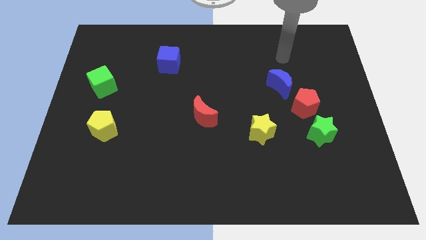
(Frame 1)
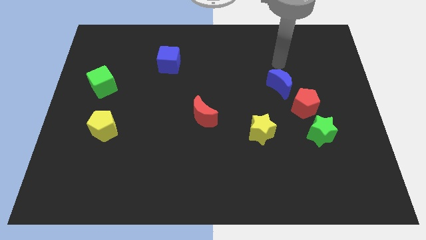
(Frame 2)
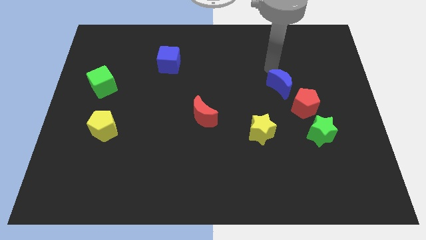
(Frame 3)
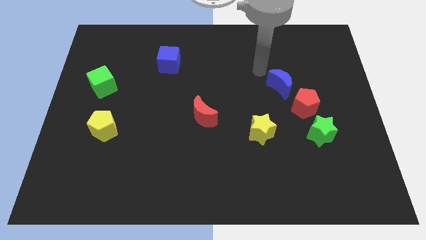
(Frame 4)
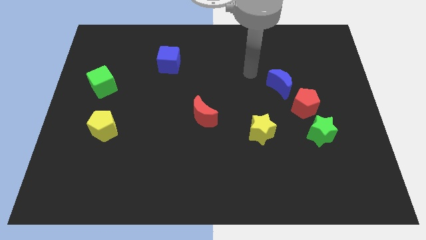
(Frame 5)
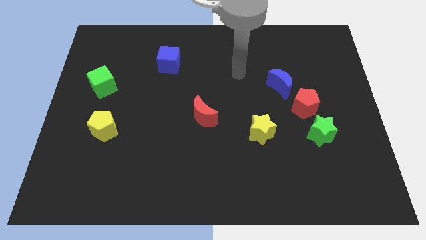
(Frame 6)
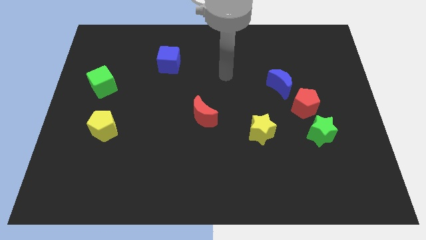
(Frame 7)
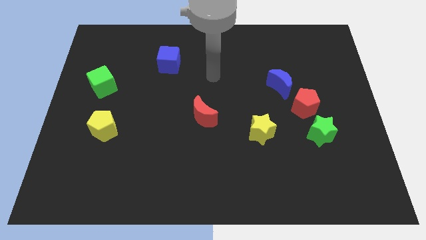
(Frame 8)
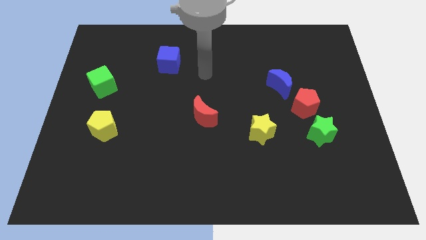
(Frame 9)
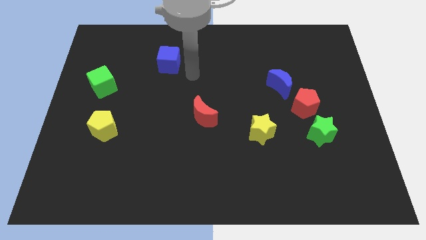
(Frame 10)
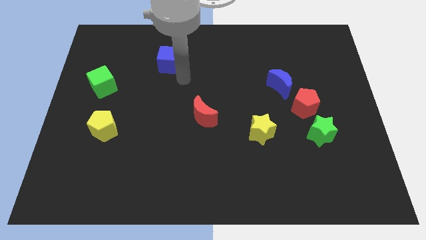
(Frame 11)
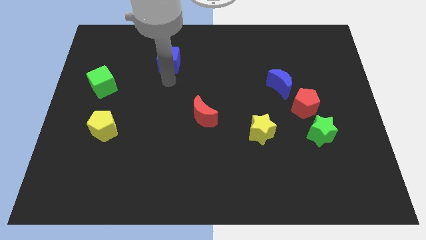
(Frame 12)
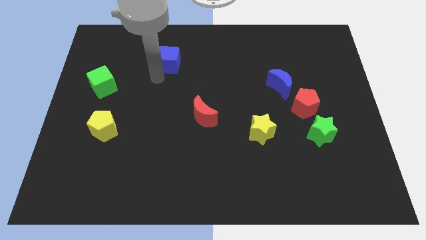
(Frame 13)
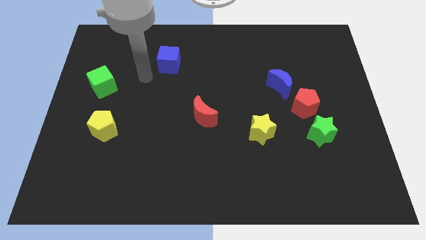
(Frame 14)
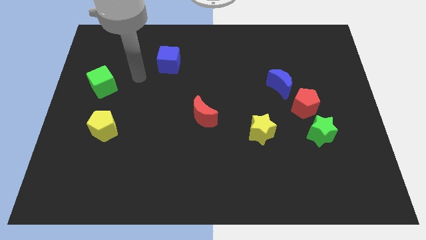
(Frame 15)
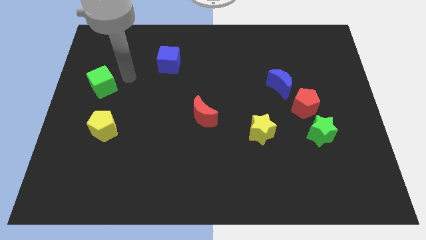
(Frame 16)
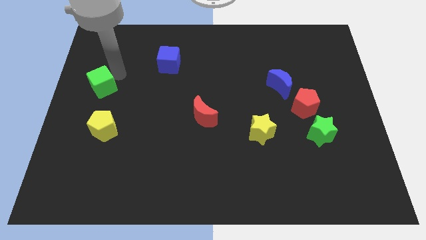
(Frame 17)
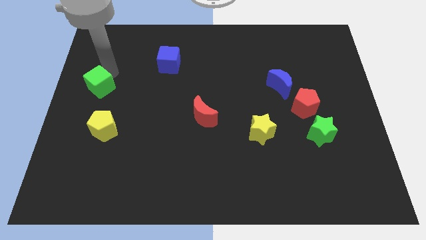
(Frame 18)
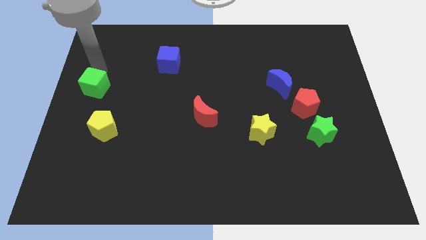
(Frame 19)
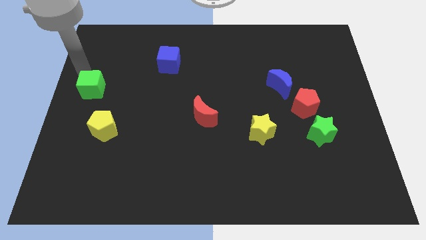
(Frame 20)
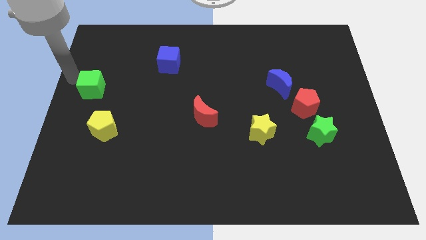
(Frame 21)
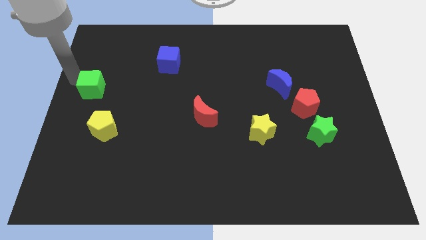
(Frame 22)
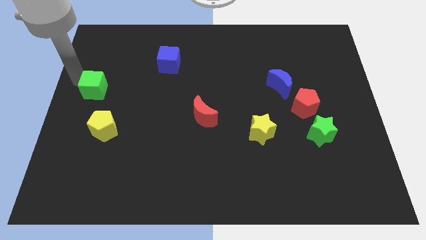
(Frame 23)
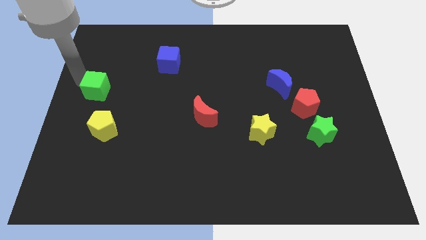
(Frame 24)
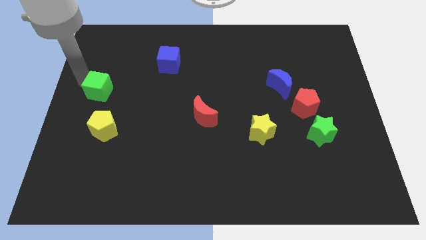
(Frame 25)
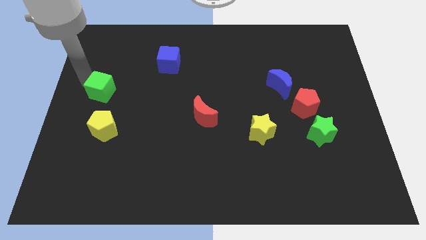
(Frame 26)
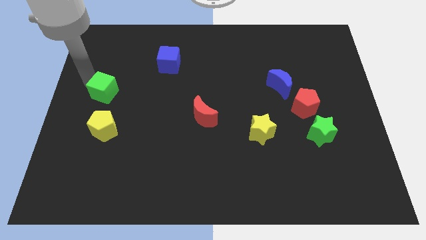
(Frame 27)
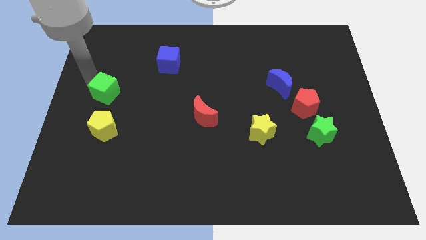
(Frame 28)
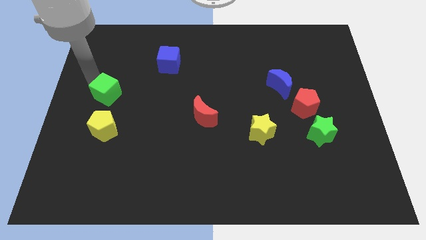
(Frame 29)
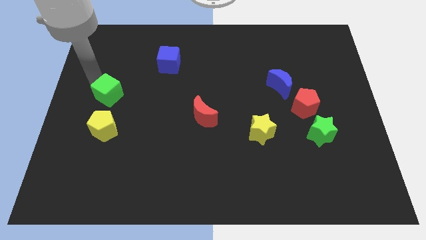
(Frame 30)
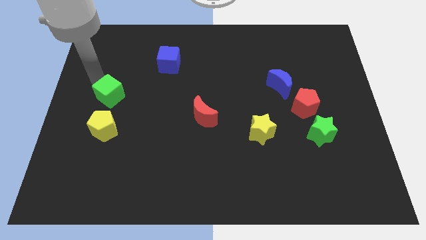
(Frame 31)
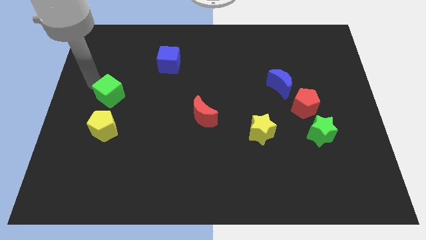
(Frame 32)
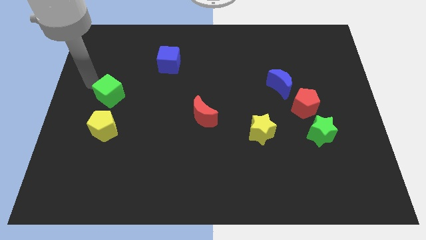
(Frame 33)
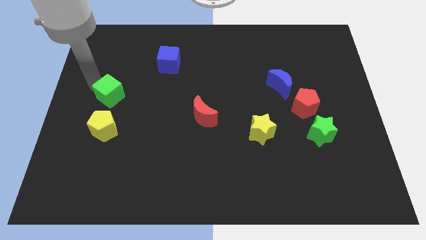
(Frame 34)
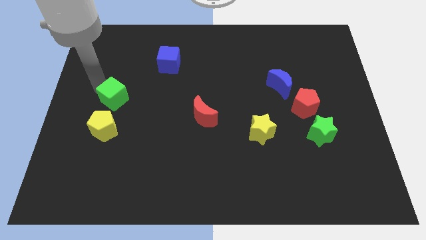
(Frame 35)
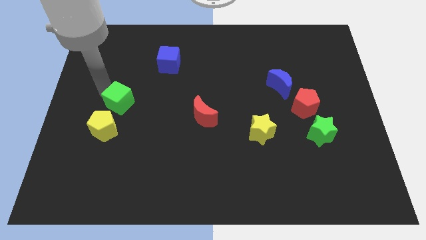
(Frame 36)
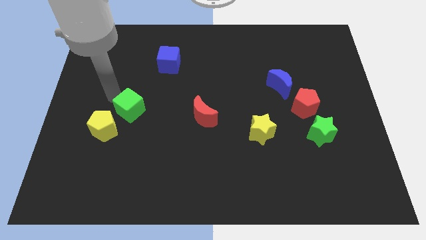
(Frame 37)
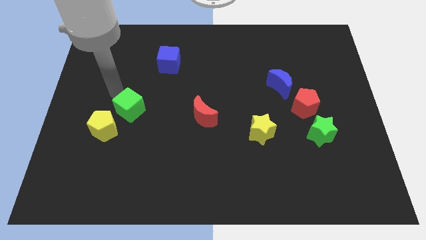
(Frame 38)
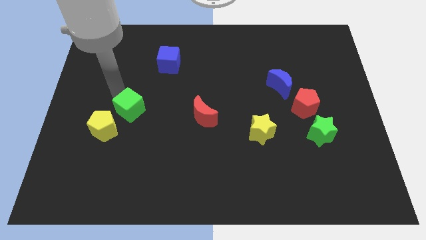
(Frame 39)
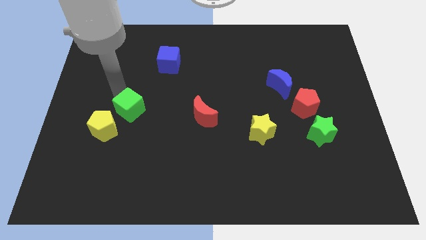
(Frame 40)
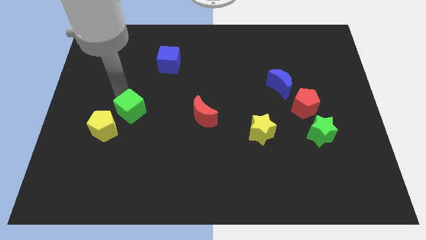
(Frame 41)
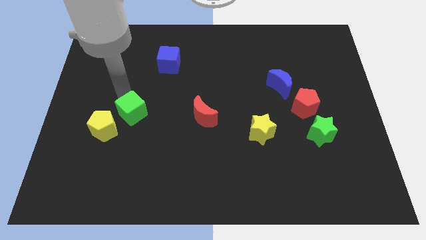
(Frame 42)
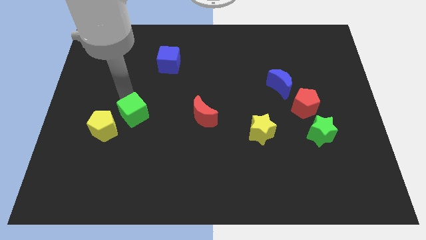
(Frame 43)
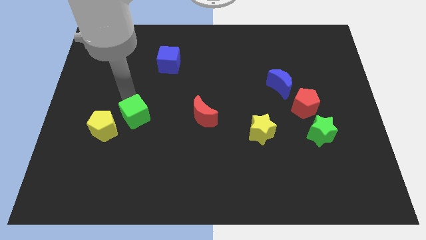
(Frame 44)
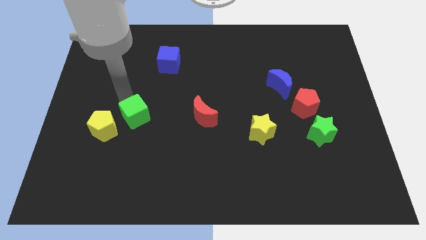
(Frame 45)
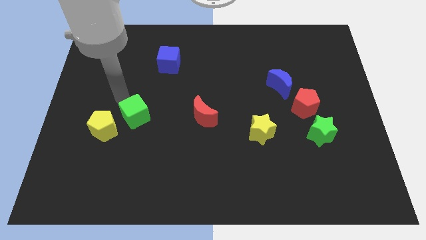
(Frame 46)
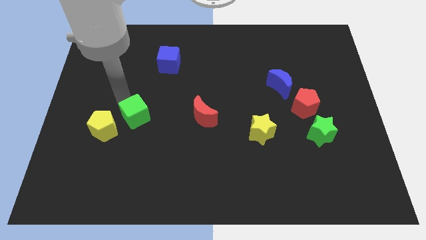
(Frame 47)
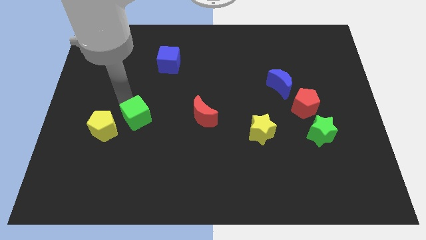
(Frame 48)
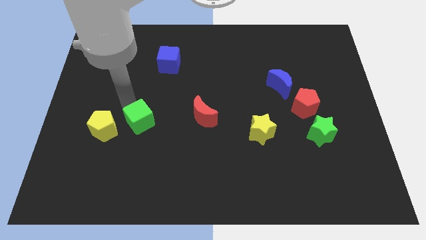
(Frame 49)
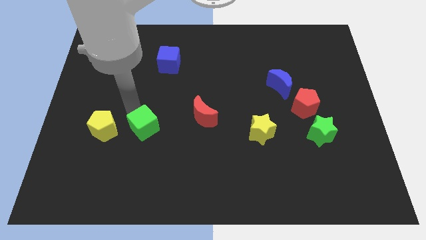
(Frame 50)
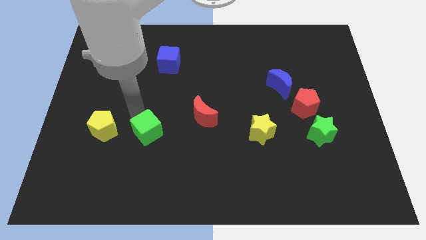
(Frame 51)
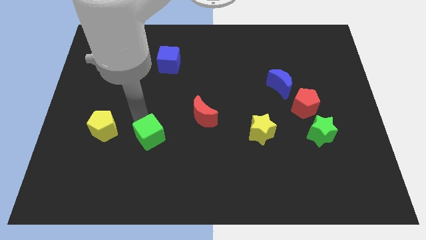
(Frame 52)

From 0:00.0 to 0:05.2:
push the green cube down and to the right diagonally

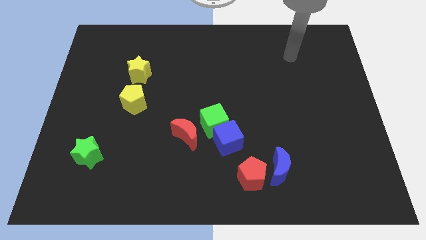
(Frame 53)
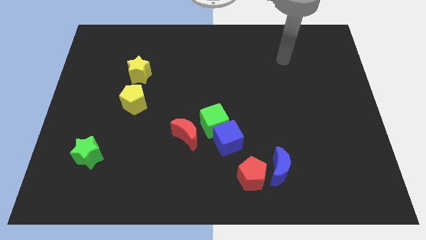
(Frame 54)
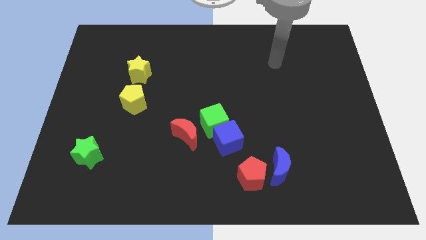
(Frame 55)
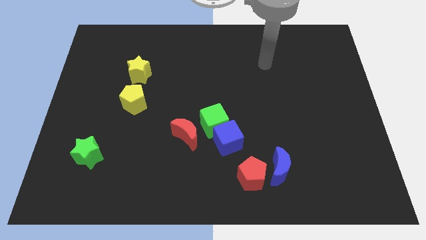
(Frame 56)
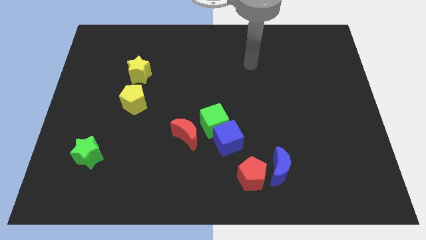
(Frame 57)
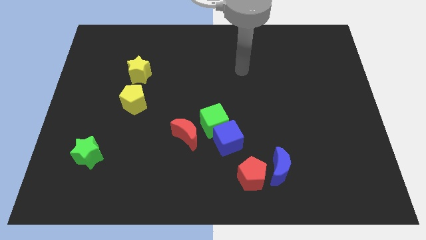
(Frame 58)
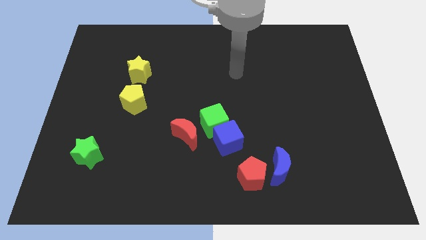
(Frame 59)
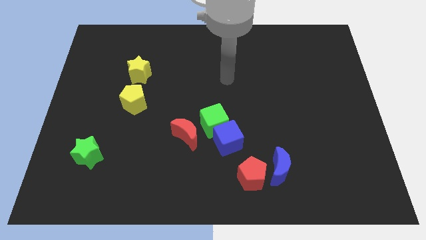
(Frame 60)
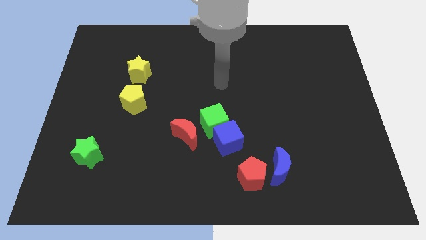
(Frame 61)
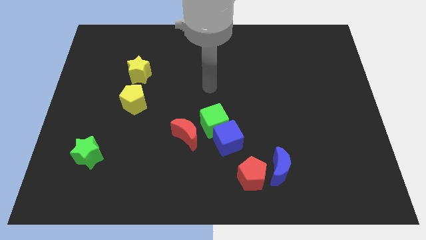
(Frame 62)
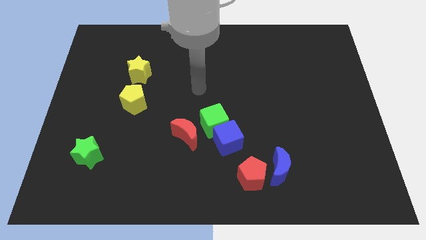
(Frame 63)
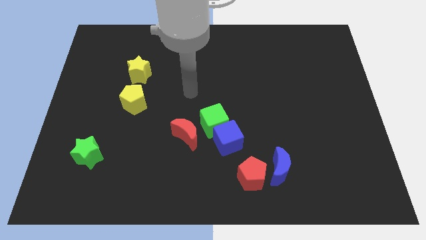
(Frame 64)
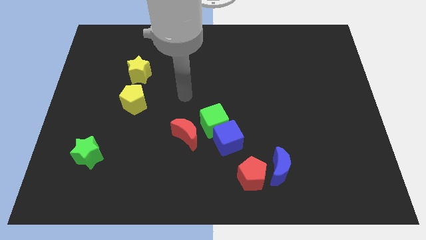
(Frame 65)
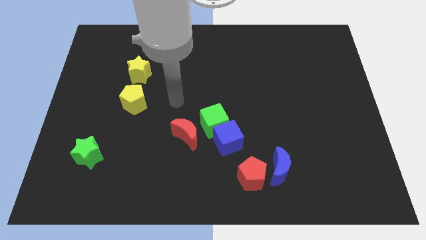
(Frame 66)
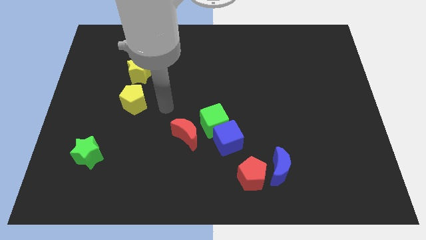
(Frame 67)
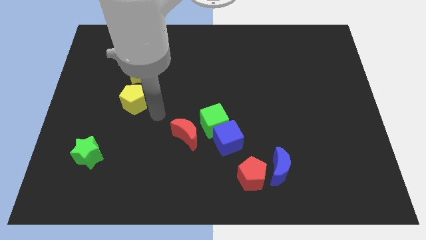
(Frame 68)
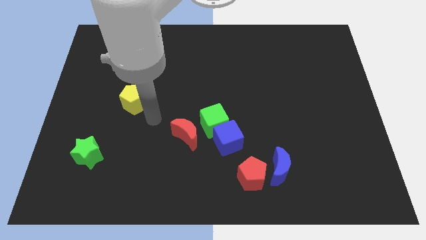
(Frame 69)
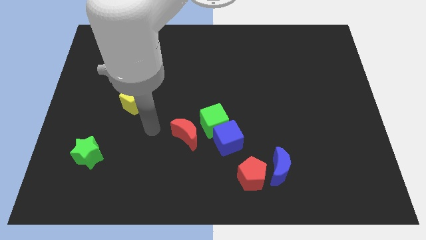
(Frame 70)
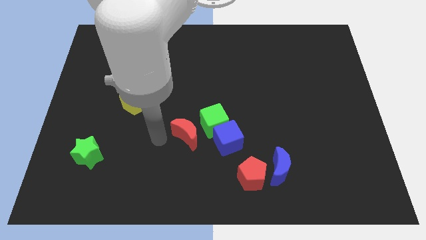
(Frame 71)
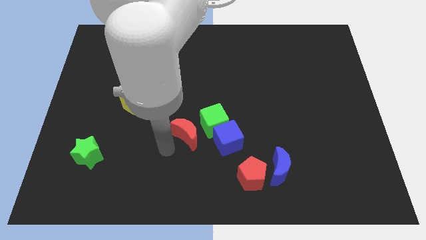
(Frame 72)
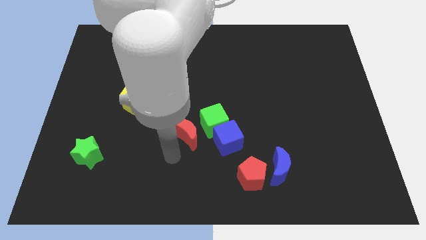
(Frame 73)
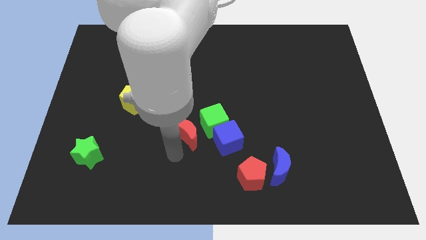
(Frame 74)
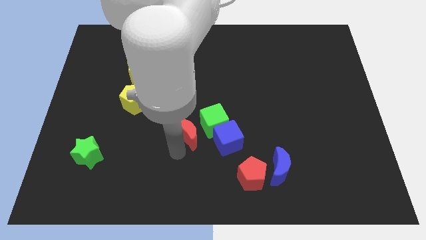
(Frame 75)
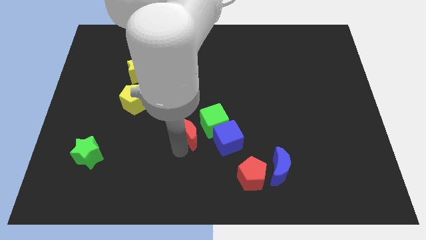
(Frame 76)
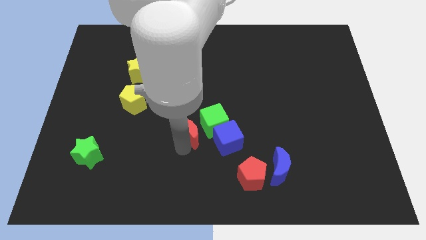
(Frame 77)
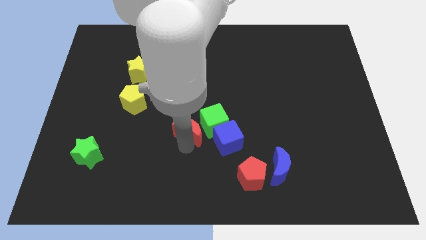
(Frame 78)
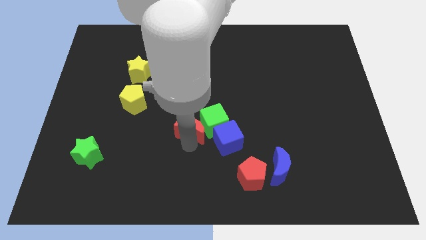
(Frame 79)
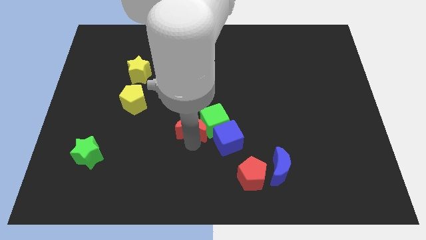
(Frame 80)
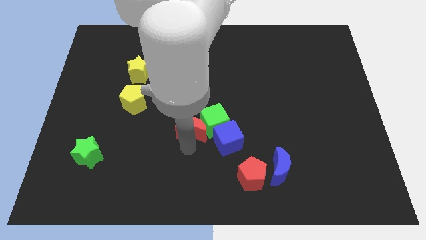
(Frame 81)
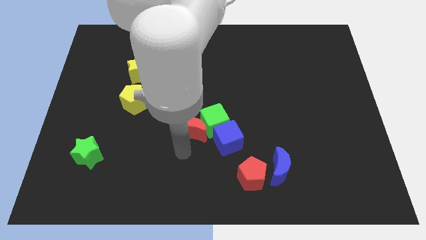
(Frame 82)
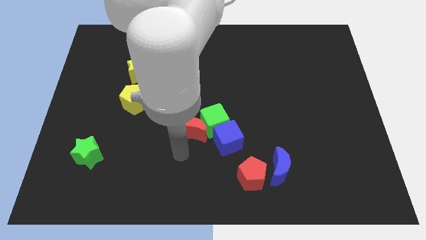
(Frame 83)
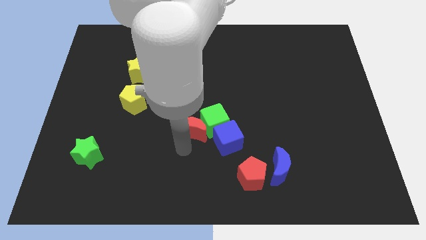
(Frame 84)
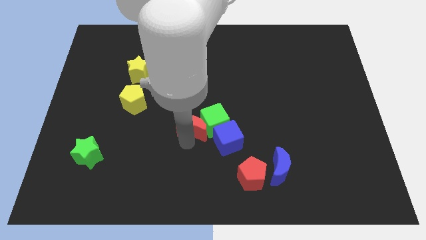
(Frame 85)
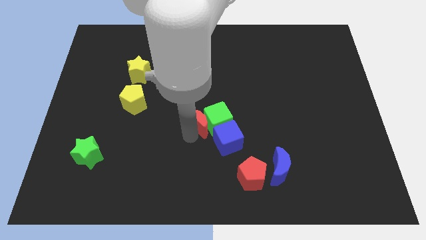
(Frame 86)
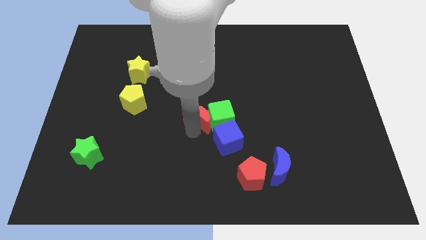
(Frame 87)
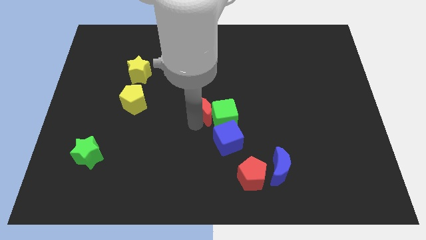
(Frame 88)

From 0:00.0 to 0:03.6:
move the red moon somewhat up and right
